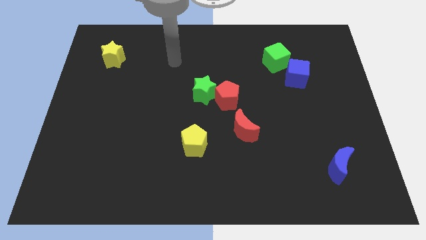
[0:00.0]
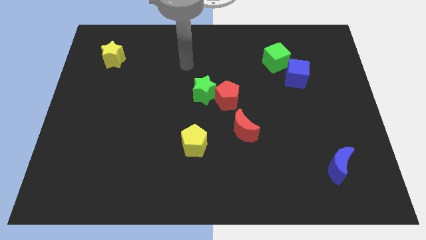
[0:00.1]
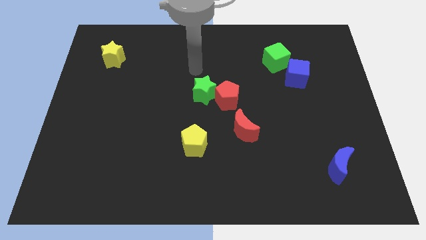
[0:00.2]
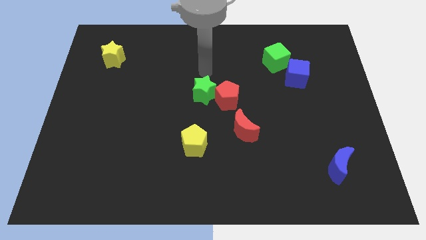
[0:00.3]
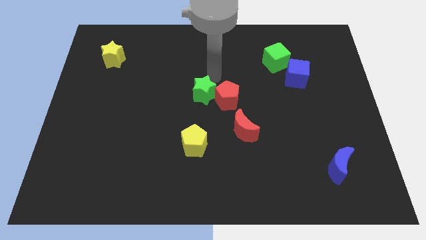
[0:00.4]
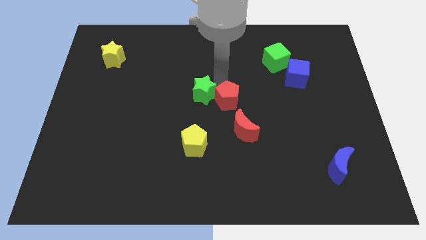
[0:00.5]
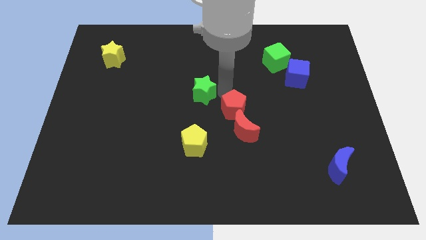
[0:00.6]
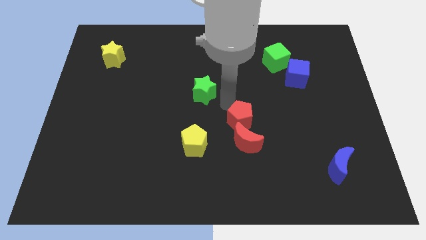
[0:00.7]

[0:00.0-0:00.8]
separate the green star from the red pentagon

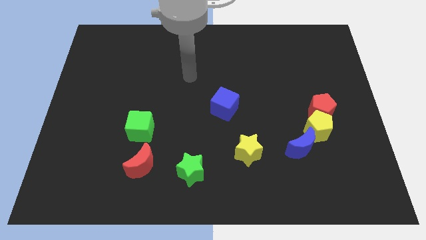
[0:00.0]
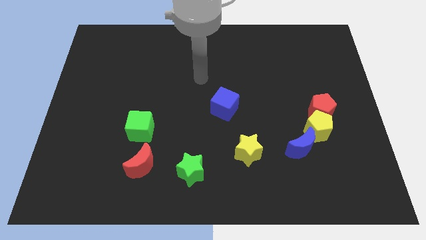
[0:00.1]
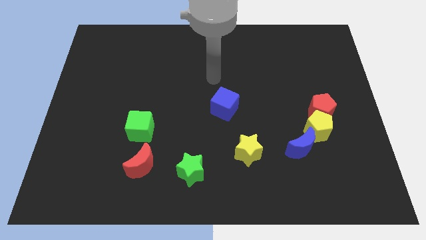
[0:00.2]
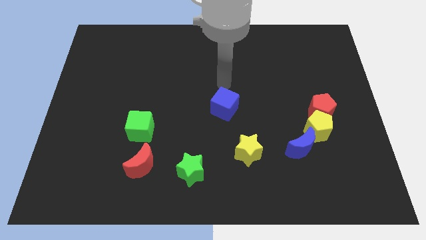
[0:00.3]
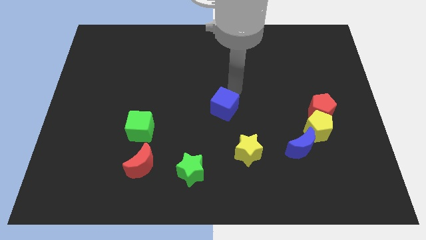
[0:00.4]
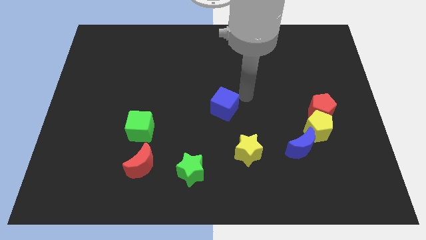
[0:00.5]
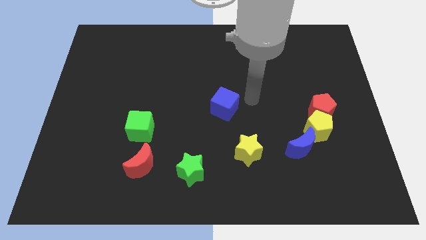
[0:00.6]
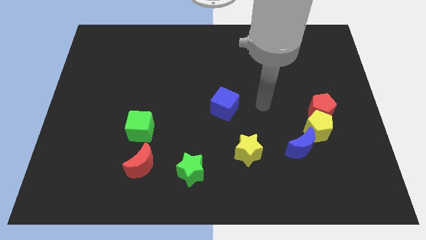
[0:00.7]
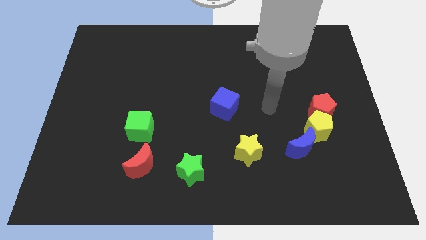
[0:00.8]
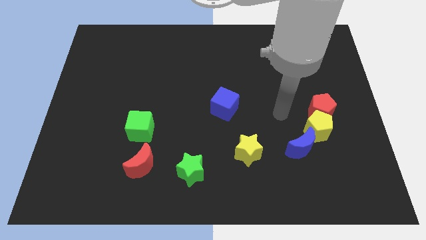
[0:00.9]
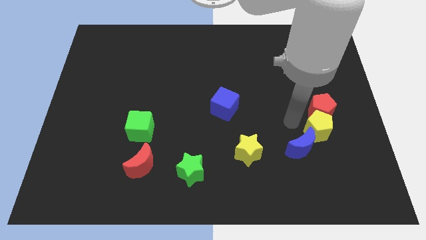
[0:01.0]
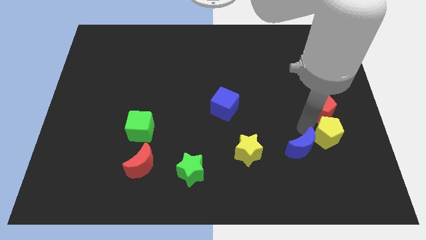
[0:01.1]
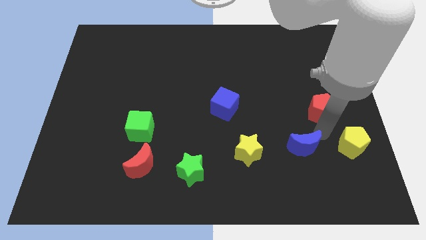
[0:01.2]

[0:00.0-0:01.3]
separate the red pentagon from the yellow pentagon

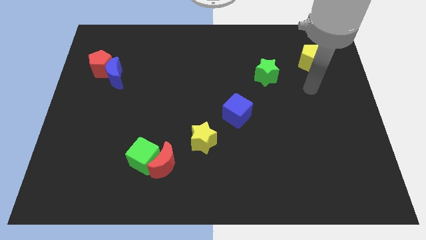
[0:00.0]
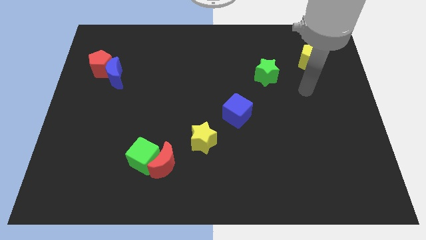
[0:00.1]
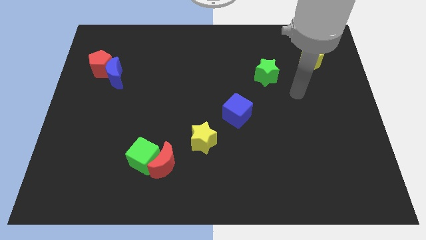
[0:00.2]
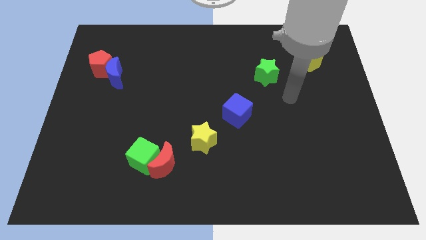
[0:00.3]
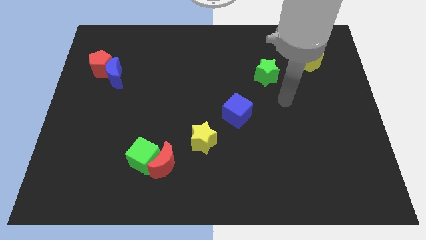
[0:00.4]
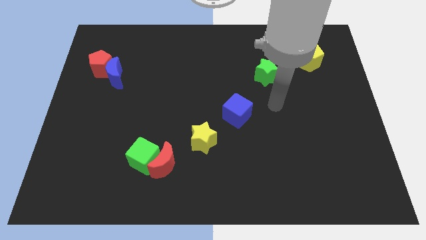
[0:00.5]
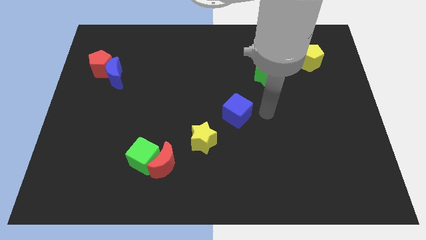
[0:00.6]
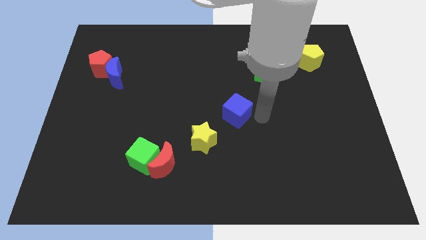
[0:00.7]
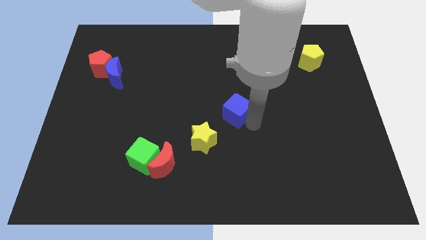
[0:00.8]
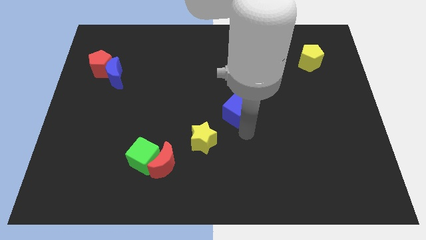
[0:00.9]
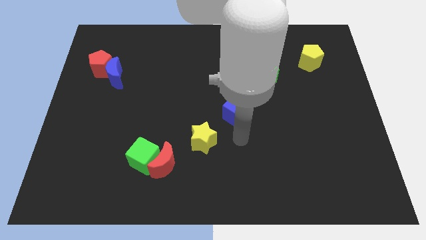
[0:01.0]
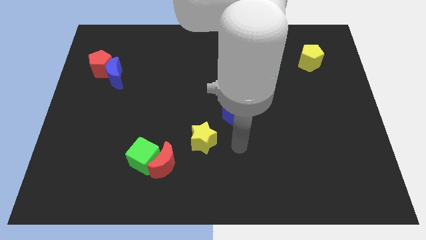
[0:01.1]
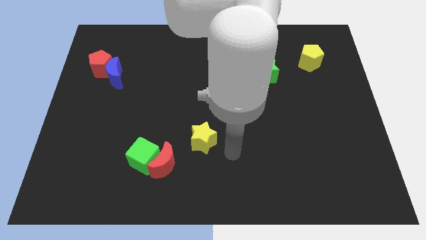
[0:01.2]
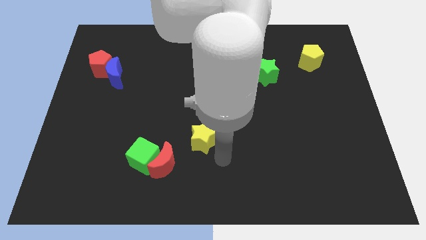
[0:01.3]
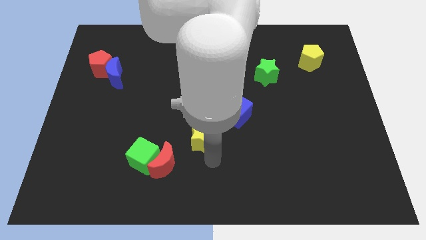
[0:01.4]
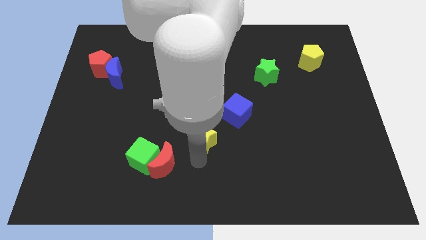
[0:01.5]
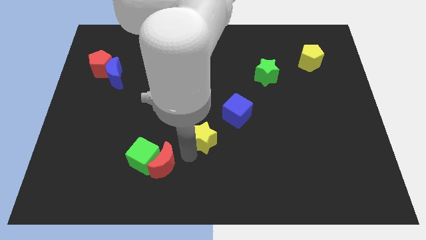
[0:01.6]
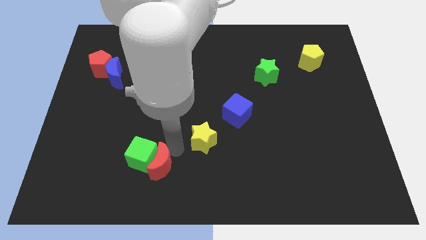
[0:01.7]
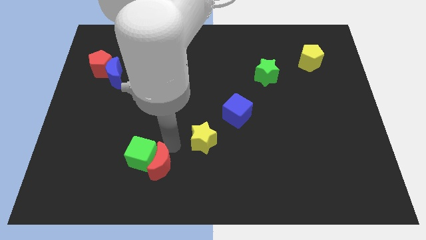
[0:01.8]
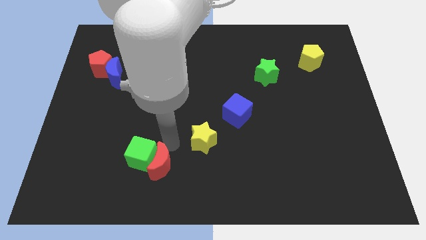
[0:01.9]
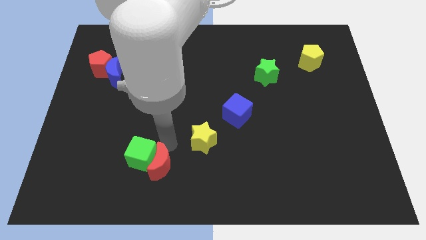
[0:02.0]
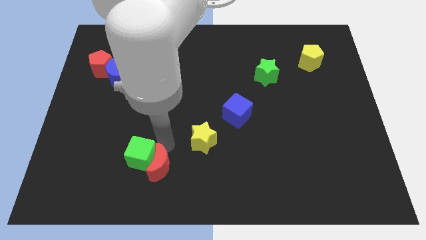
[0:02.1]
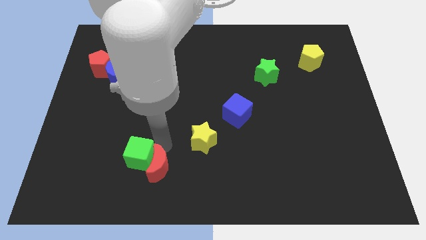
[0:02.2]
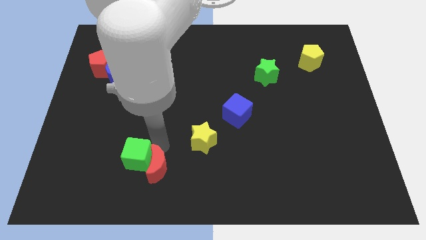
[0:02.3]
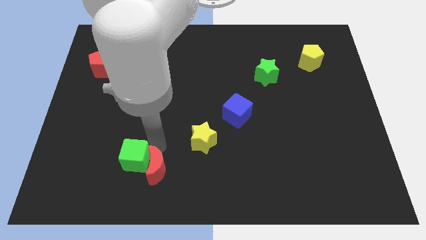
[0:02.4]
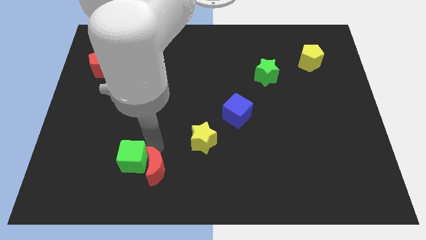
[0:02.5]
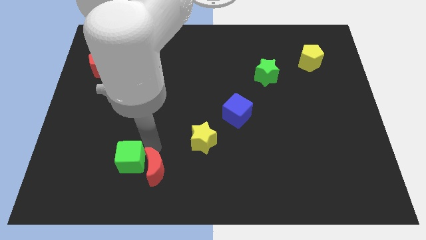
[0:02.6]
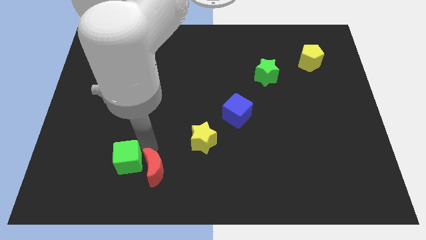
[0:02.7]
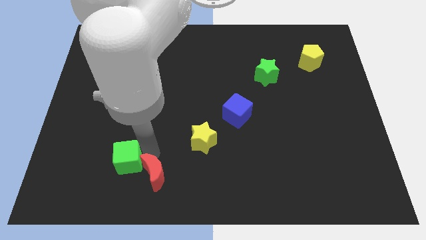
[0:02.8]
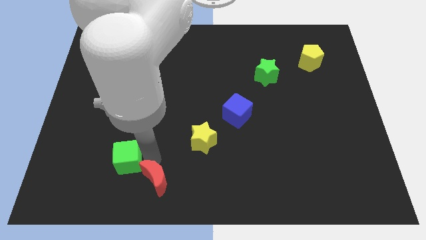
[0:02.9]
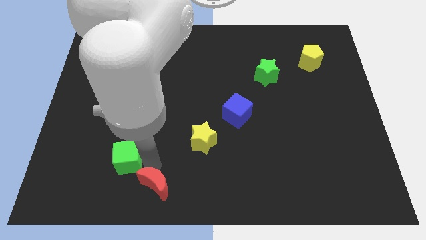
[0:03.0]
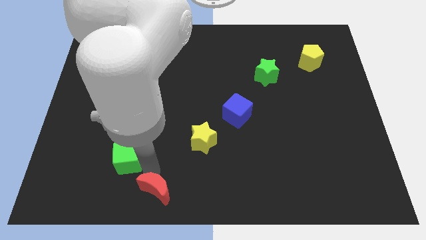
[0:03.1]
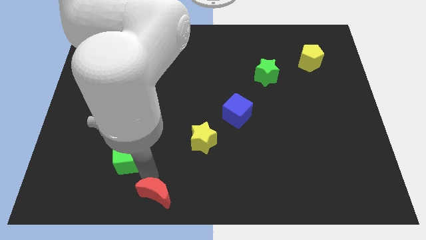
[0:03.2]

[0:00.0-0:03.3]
pull the green cube apart from the red moon

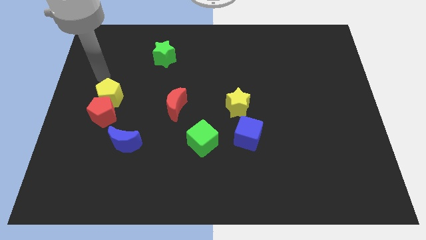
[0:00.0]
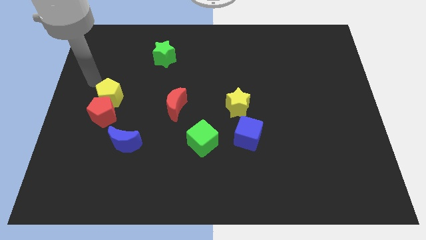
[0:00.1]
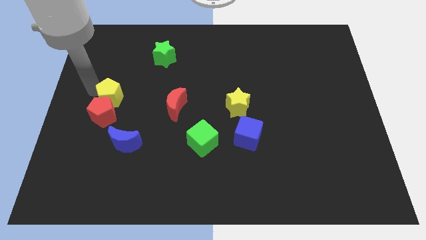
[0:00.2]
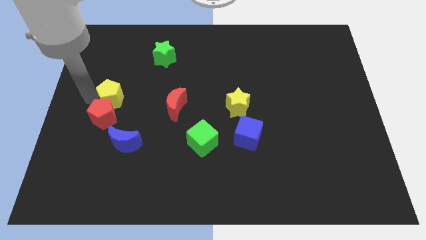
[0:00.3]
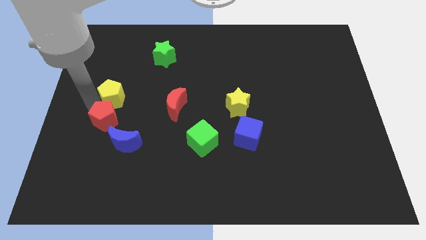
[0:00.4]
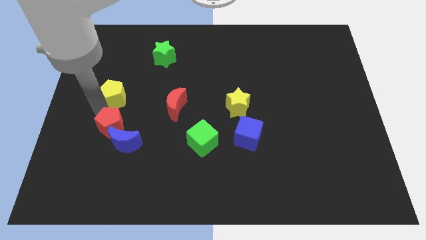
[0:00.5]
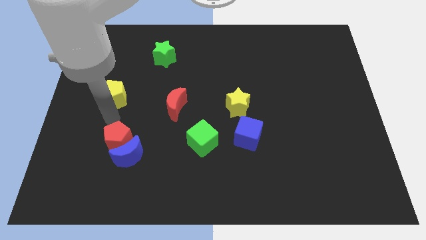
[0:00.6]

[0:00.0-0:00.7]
pull the yellow pentagon apart from the red pentagon

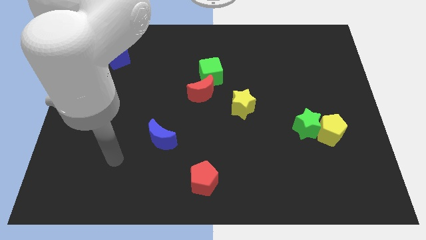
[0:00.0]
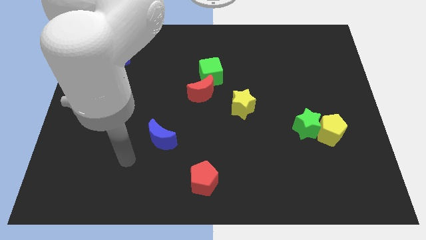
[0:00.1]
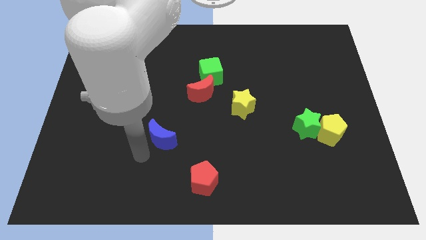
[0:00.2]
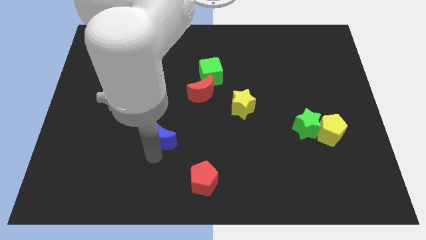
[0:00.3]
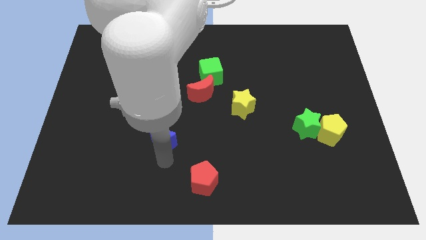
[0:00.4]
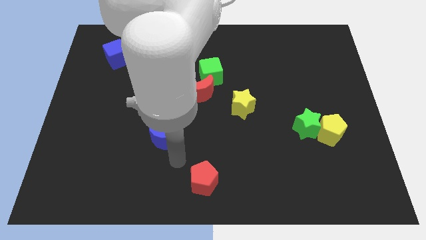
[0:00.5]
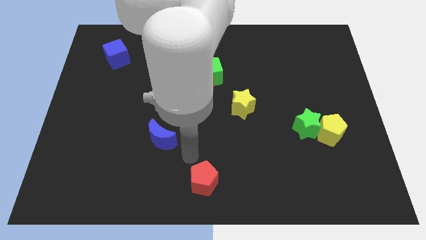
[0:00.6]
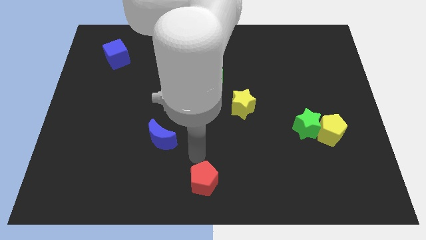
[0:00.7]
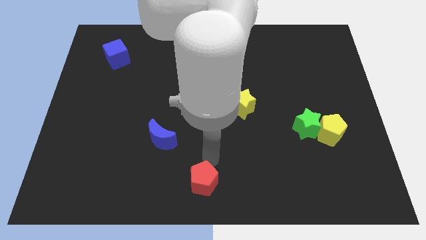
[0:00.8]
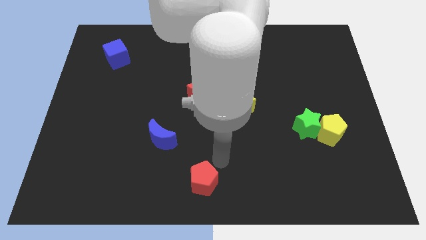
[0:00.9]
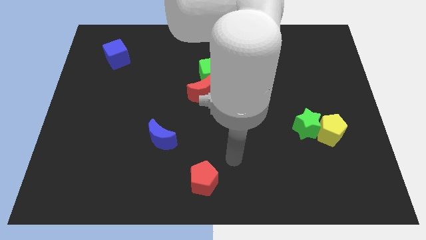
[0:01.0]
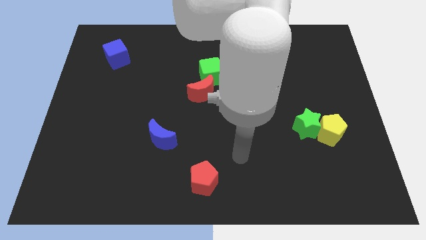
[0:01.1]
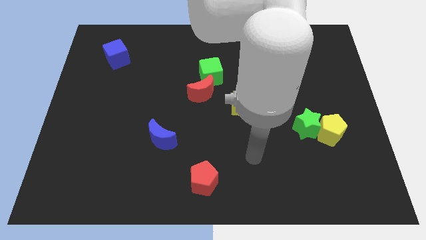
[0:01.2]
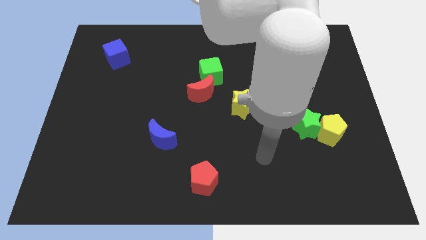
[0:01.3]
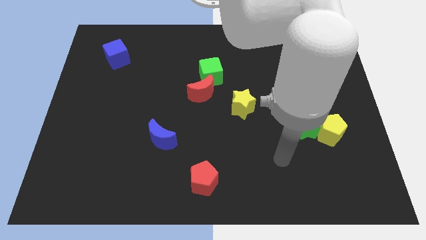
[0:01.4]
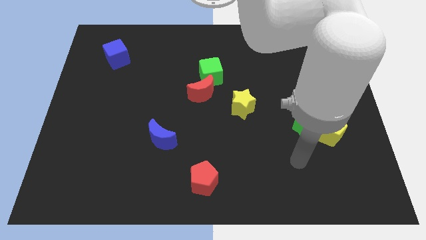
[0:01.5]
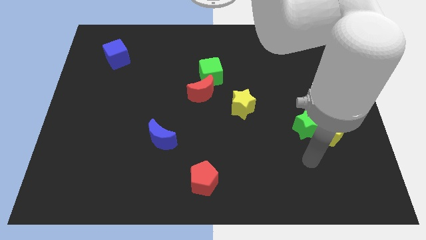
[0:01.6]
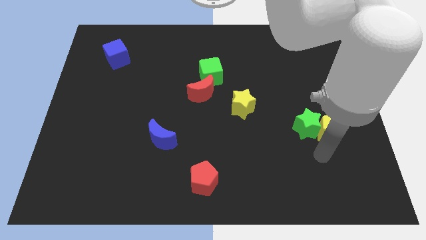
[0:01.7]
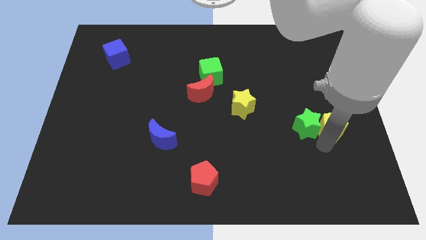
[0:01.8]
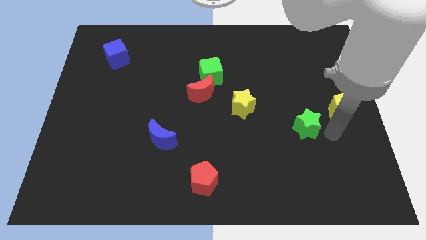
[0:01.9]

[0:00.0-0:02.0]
separate the green star from the yellow pentagon

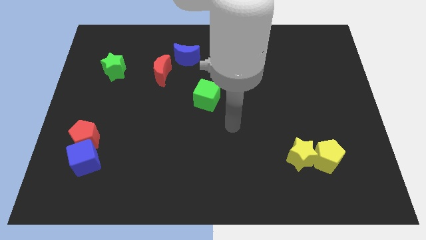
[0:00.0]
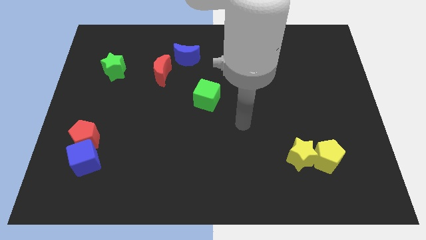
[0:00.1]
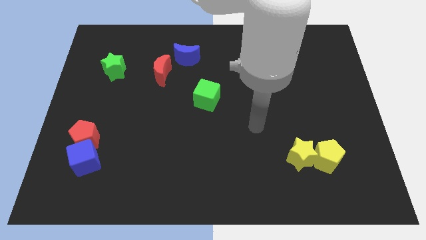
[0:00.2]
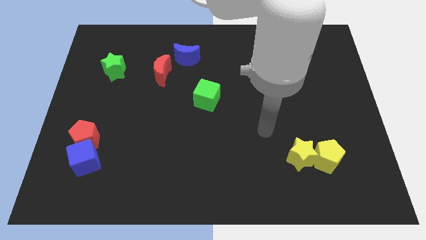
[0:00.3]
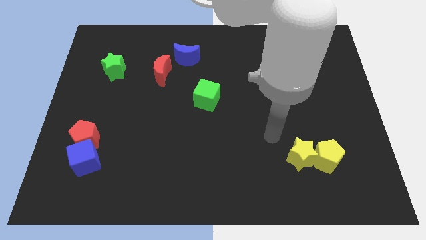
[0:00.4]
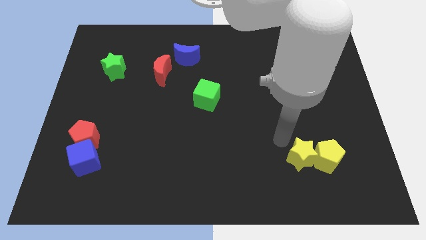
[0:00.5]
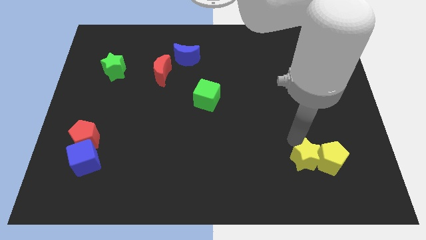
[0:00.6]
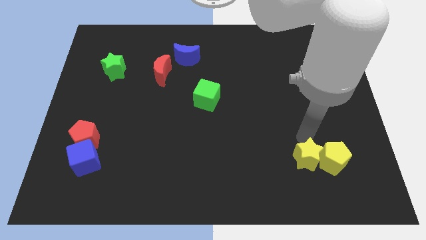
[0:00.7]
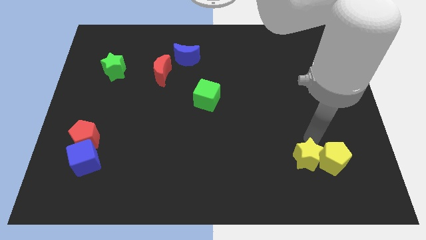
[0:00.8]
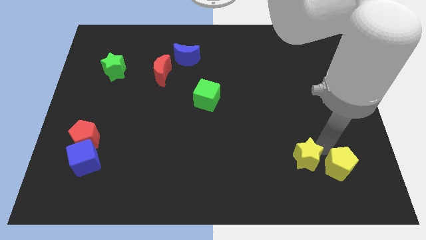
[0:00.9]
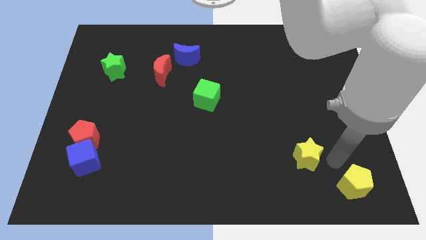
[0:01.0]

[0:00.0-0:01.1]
move the yellow star away from the yellow pentagon
